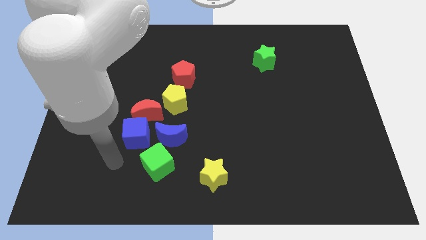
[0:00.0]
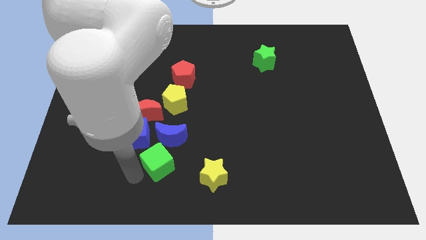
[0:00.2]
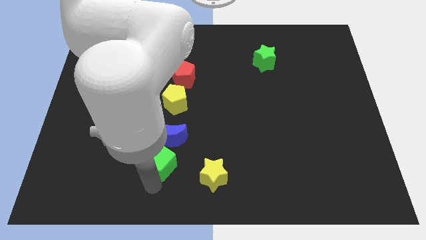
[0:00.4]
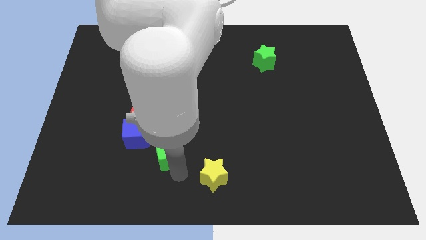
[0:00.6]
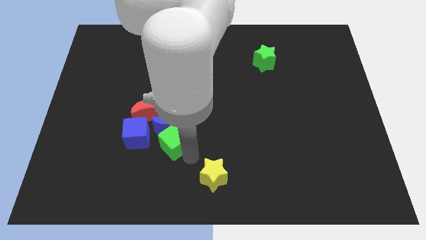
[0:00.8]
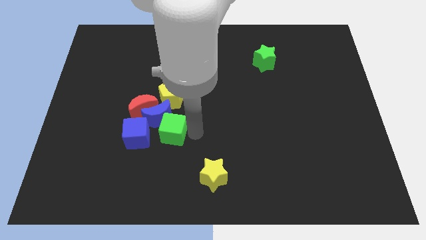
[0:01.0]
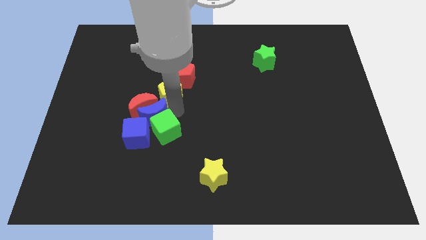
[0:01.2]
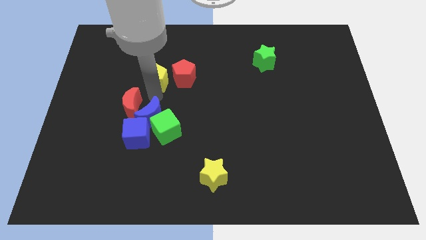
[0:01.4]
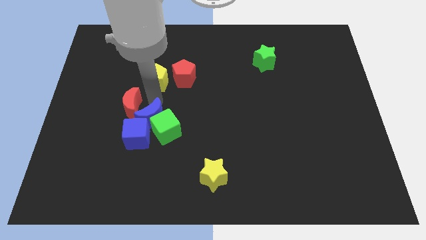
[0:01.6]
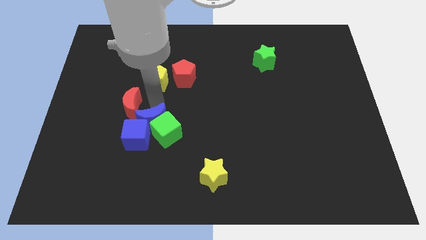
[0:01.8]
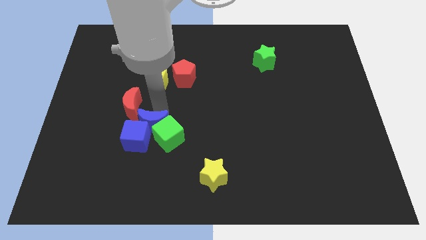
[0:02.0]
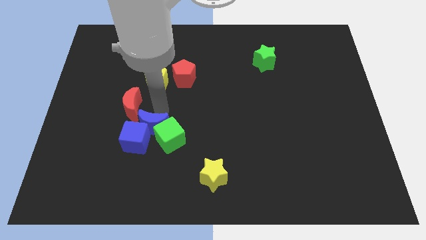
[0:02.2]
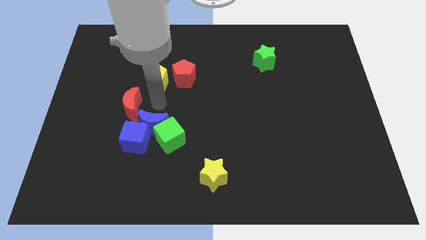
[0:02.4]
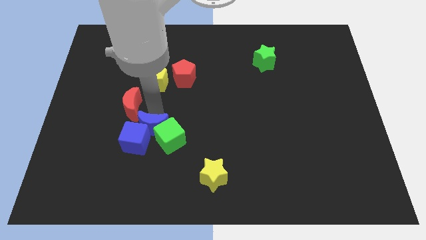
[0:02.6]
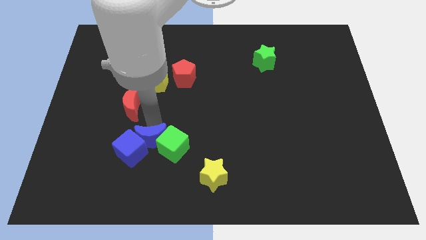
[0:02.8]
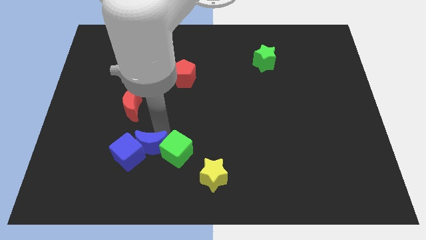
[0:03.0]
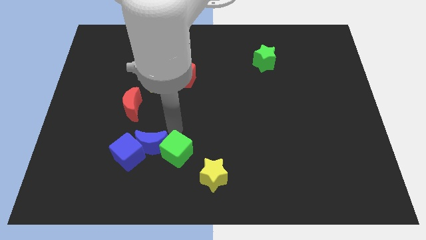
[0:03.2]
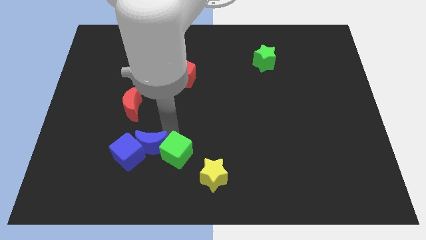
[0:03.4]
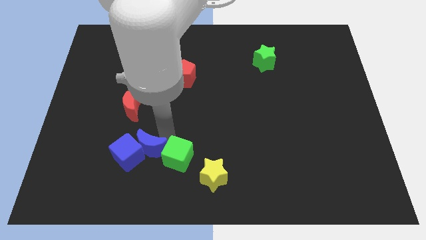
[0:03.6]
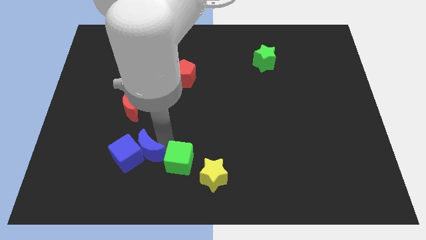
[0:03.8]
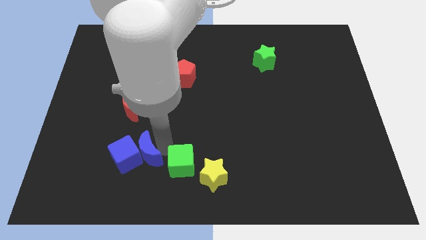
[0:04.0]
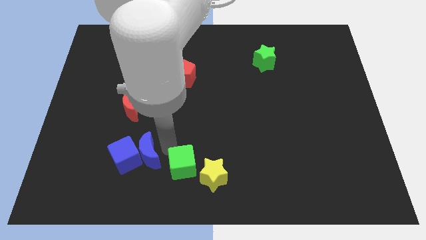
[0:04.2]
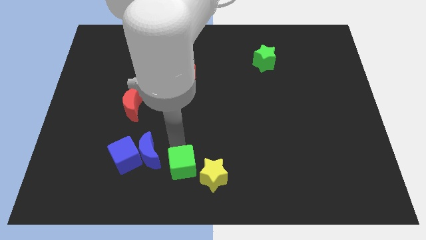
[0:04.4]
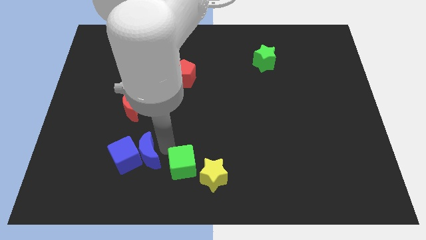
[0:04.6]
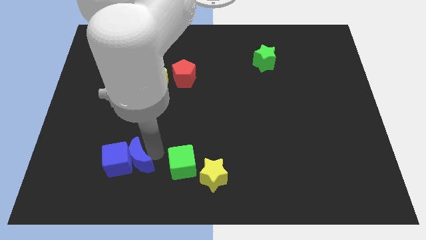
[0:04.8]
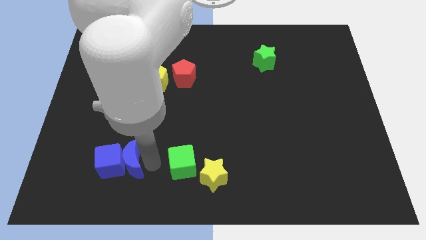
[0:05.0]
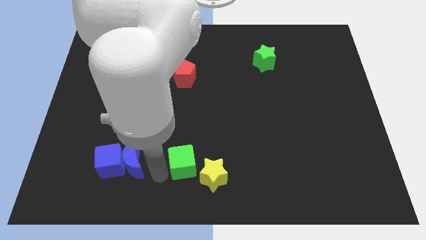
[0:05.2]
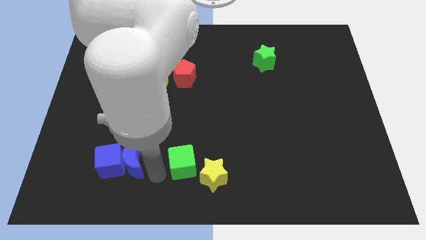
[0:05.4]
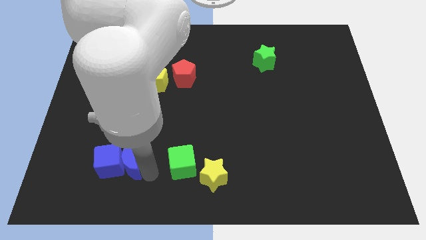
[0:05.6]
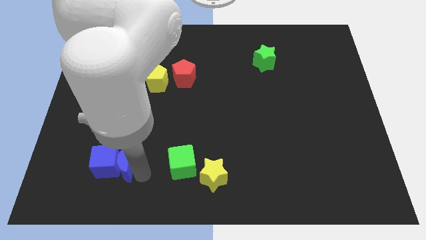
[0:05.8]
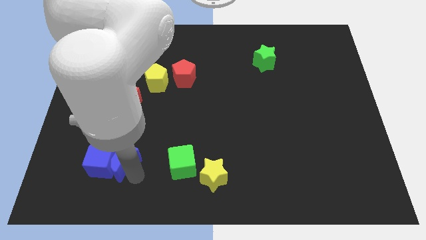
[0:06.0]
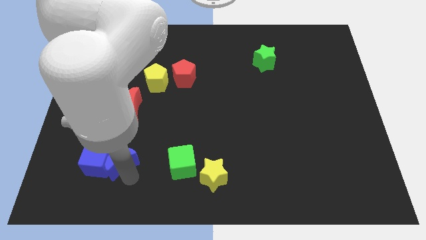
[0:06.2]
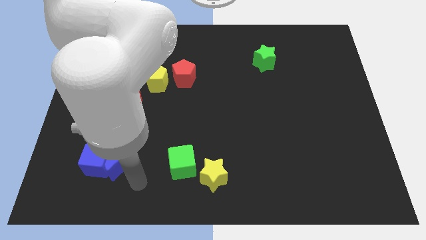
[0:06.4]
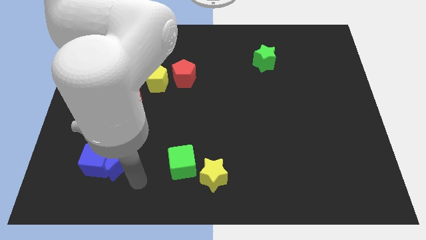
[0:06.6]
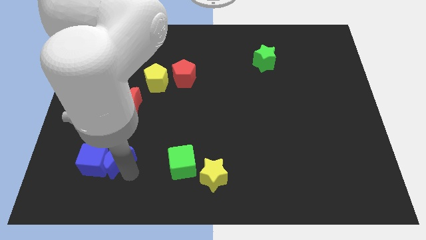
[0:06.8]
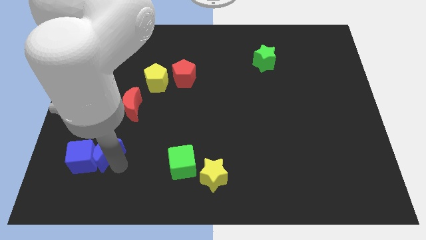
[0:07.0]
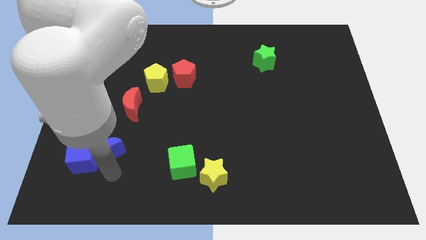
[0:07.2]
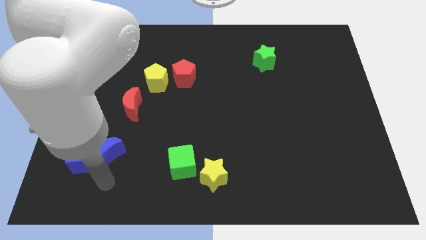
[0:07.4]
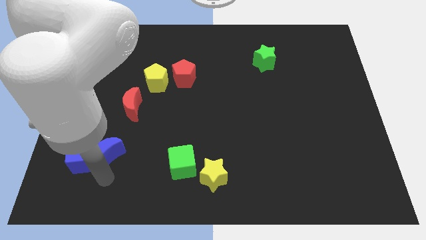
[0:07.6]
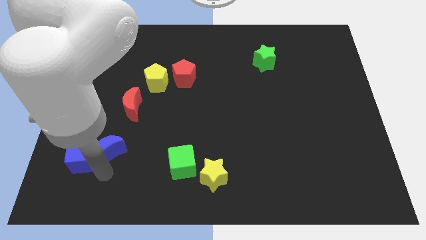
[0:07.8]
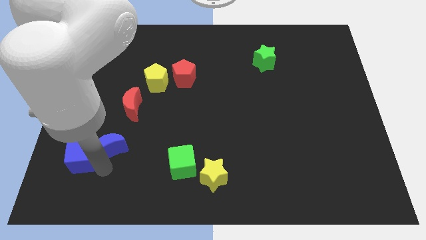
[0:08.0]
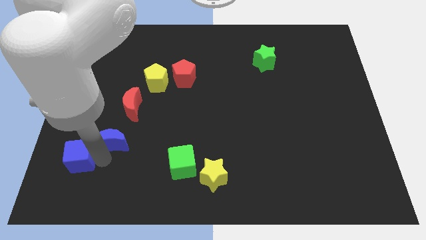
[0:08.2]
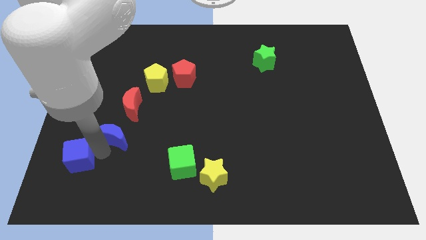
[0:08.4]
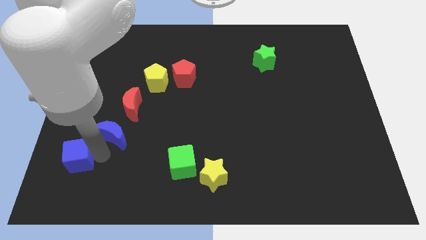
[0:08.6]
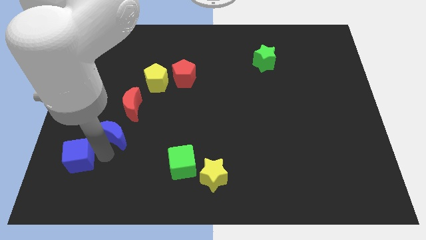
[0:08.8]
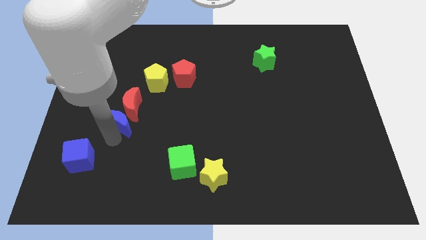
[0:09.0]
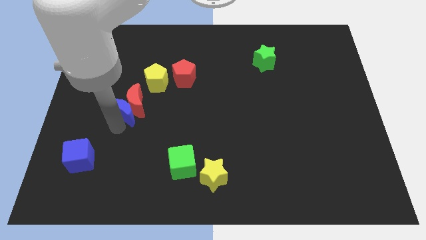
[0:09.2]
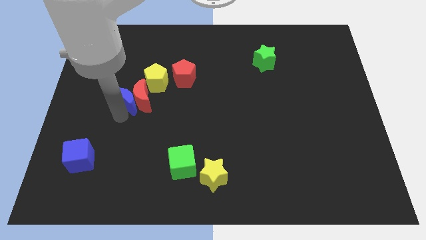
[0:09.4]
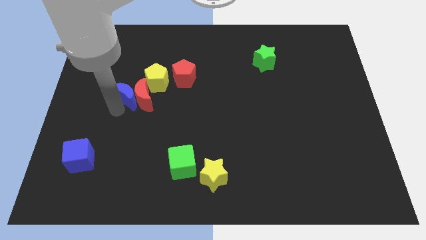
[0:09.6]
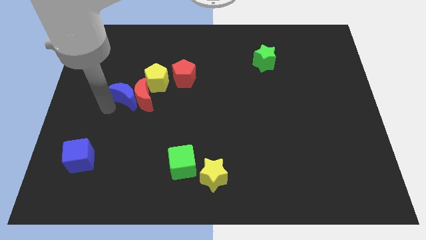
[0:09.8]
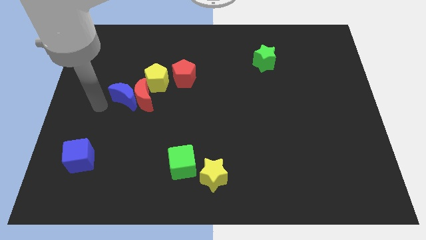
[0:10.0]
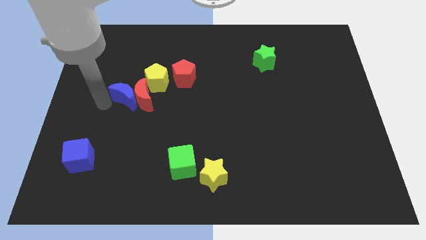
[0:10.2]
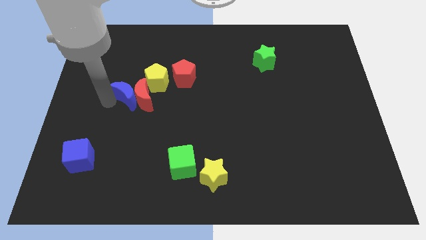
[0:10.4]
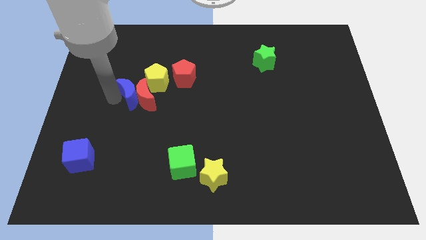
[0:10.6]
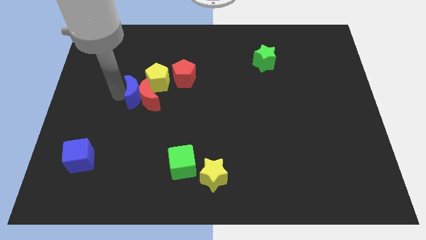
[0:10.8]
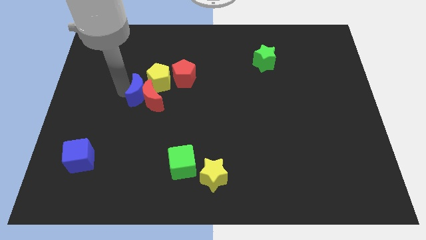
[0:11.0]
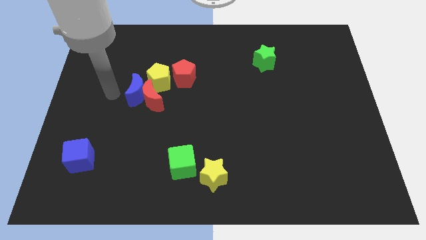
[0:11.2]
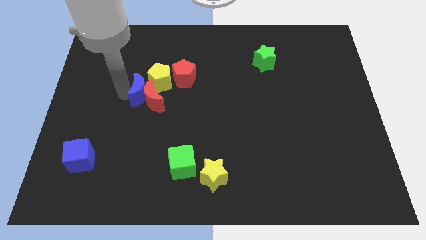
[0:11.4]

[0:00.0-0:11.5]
move the blue moon diagonally down and to the left of the red pentagon

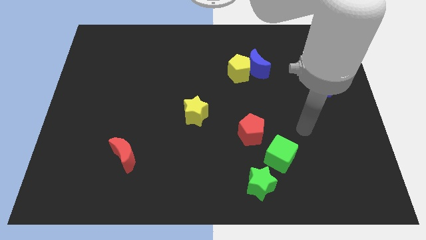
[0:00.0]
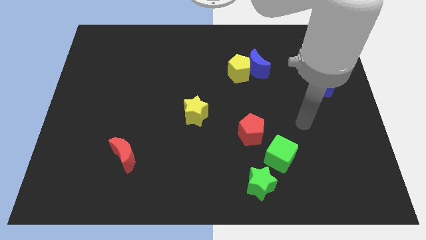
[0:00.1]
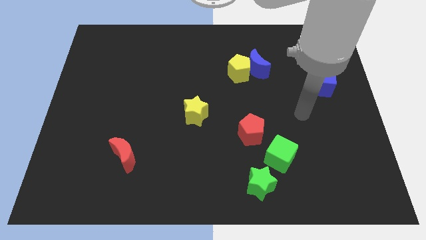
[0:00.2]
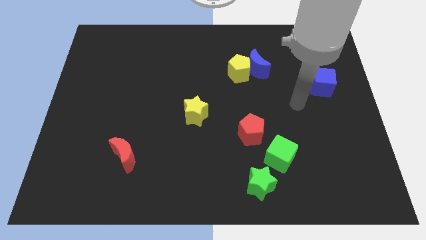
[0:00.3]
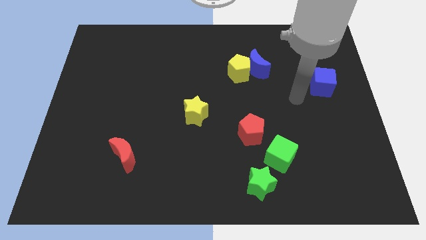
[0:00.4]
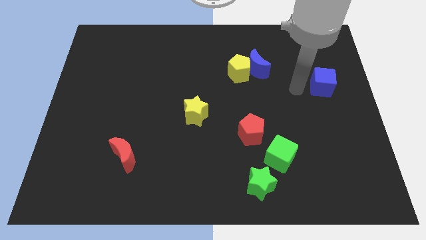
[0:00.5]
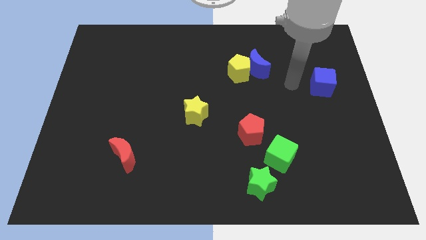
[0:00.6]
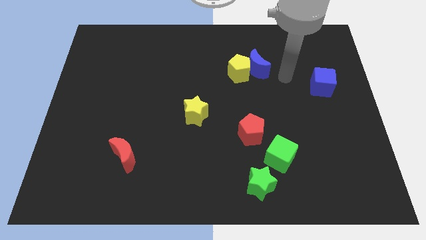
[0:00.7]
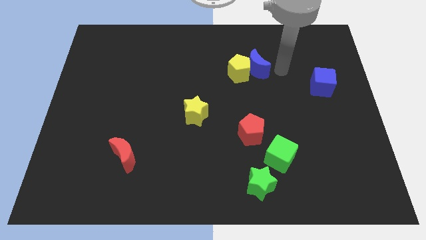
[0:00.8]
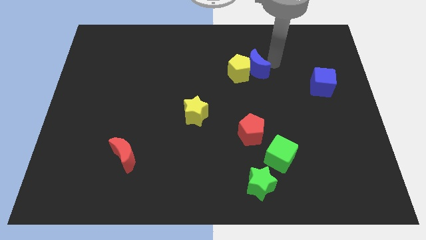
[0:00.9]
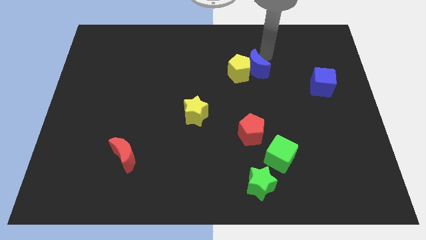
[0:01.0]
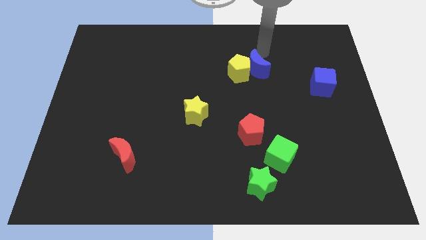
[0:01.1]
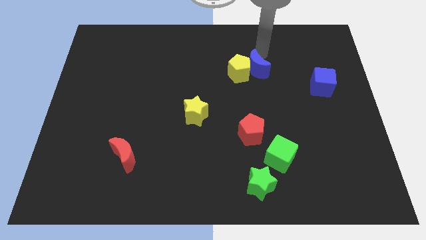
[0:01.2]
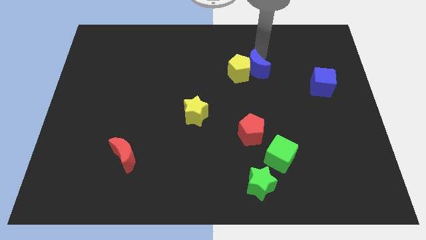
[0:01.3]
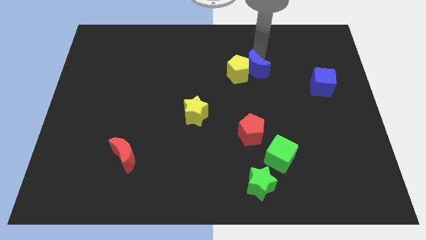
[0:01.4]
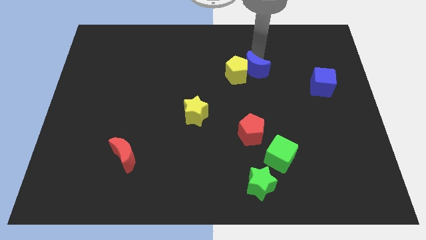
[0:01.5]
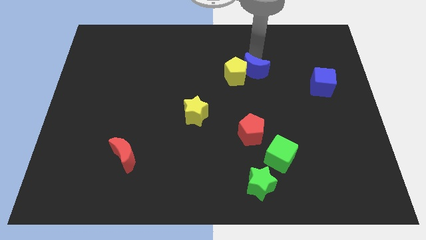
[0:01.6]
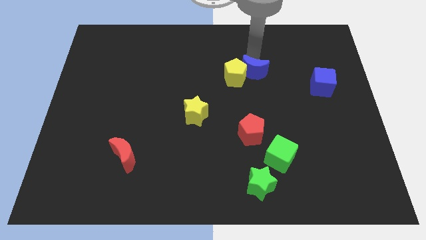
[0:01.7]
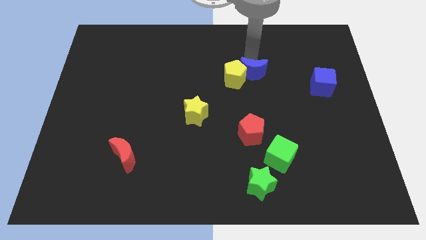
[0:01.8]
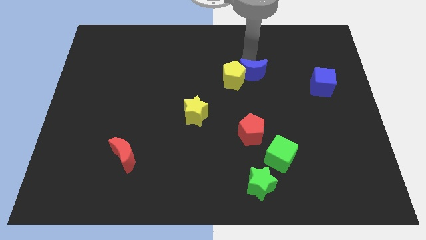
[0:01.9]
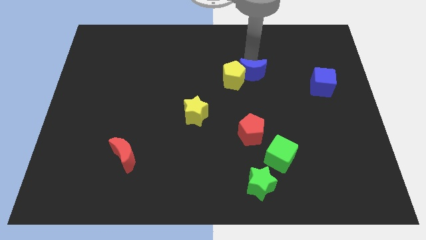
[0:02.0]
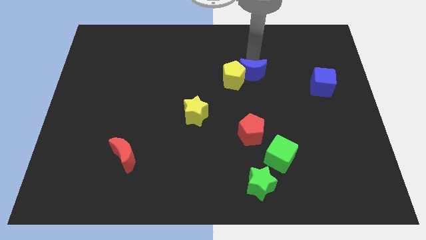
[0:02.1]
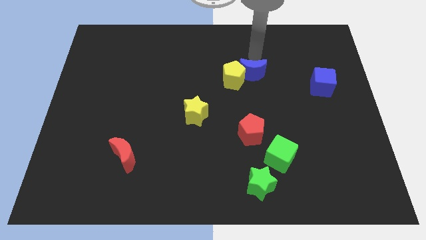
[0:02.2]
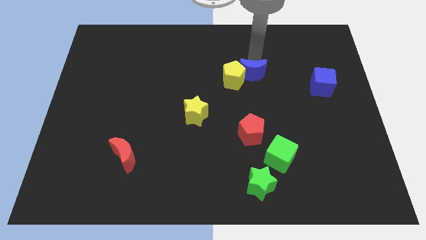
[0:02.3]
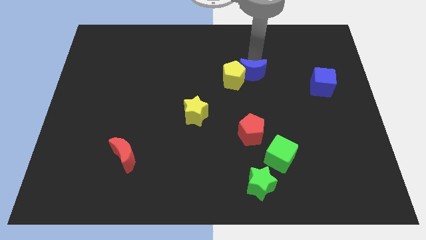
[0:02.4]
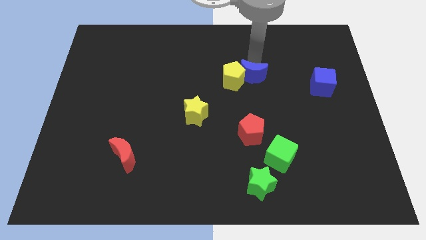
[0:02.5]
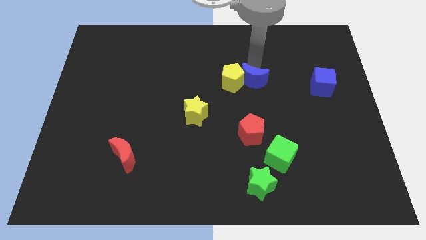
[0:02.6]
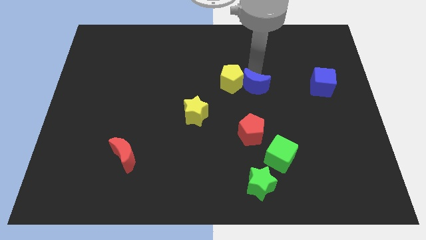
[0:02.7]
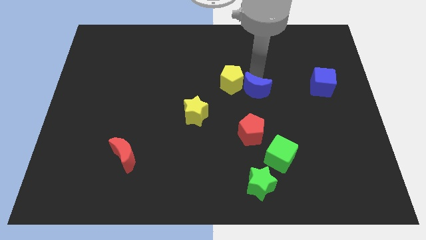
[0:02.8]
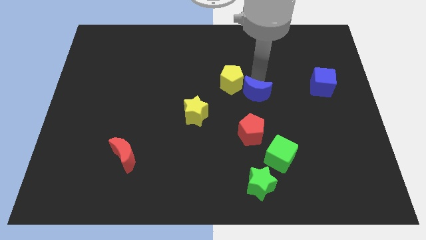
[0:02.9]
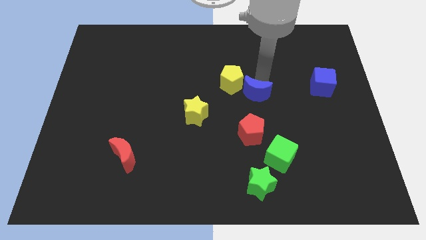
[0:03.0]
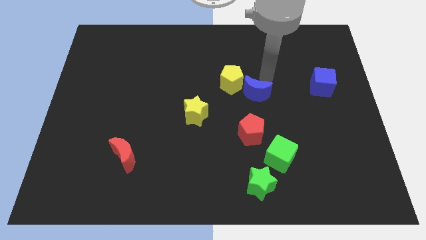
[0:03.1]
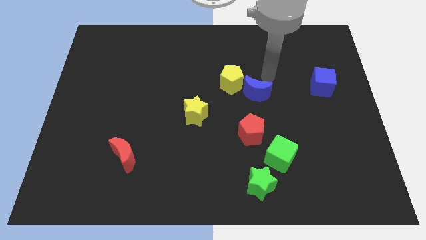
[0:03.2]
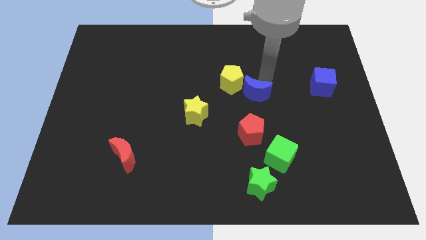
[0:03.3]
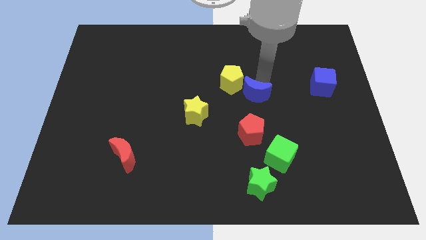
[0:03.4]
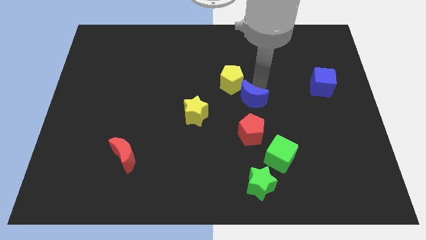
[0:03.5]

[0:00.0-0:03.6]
slide the blue moon to the right side of the yellow star
